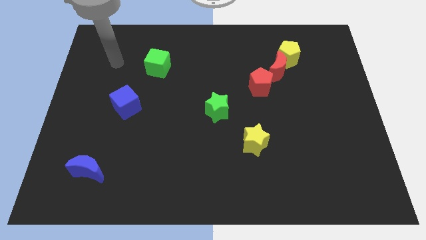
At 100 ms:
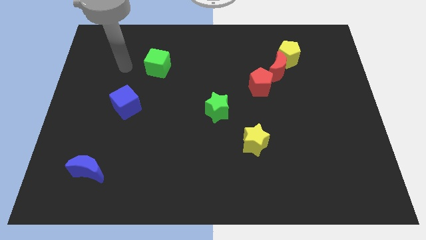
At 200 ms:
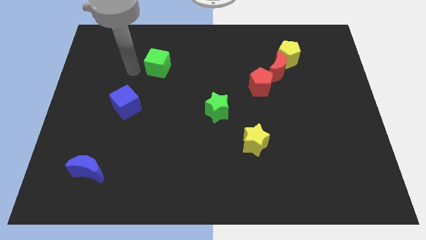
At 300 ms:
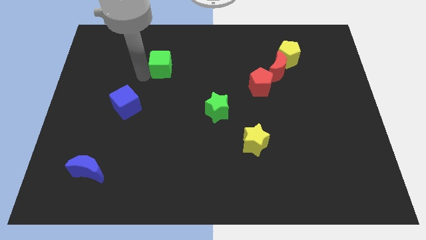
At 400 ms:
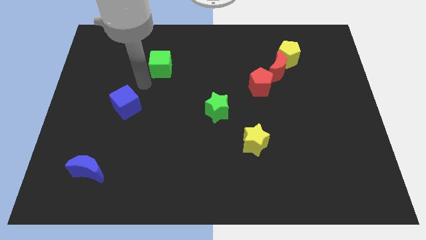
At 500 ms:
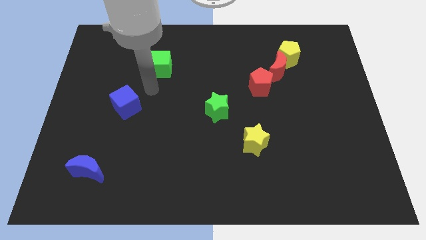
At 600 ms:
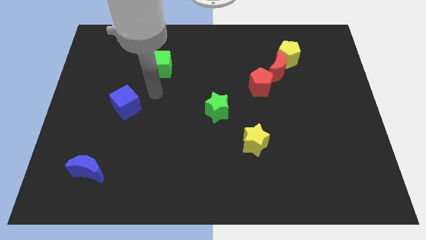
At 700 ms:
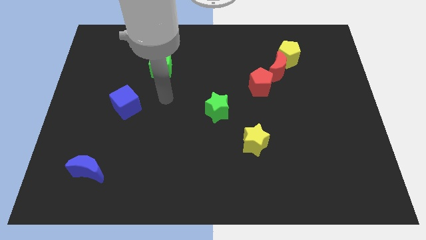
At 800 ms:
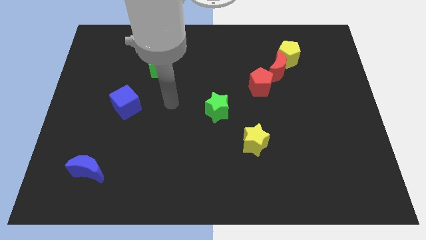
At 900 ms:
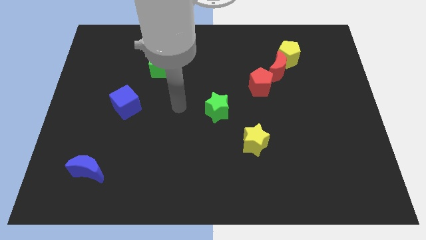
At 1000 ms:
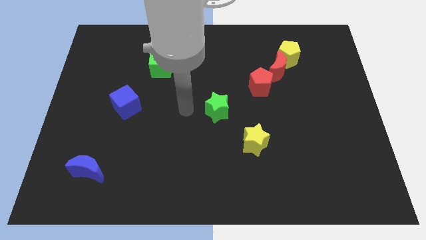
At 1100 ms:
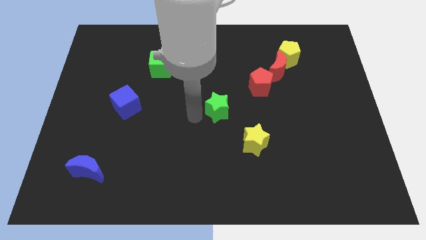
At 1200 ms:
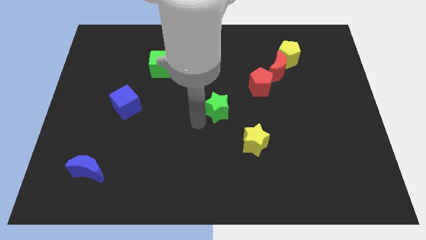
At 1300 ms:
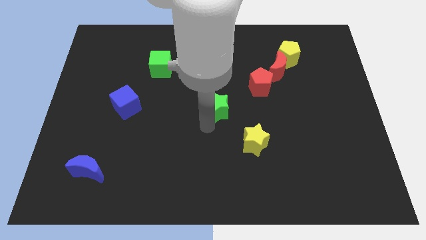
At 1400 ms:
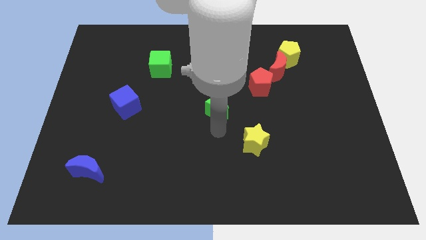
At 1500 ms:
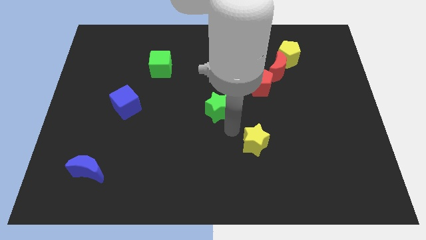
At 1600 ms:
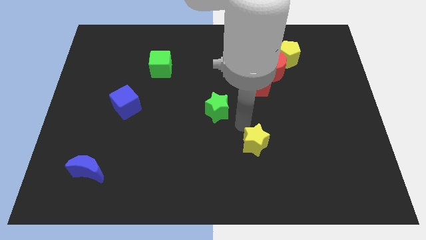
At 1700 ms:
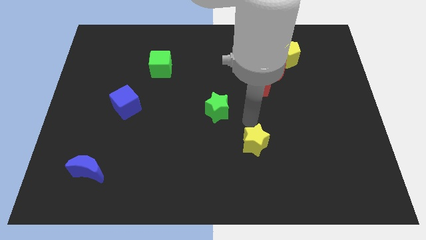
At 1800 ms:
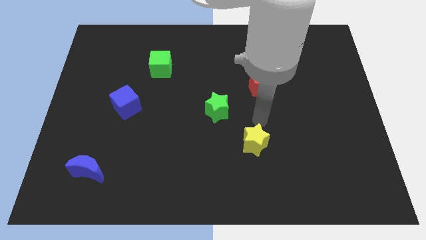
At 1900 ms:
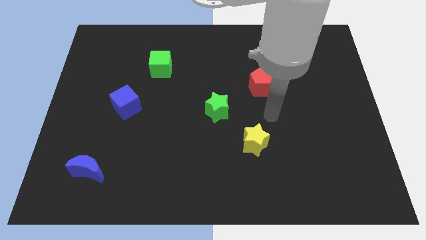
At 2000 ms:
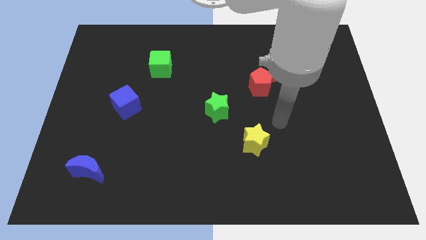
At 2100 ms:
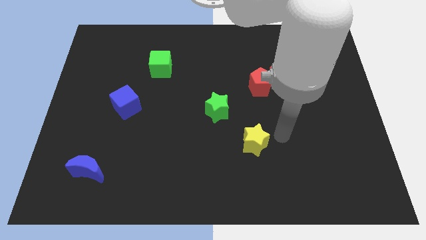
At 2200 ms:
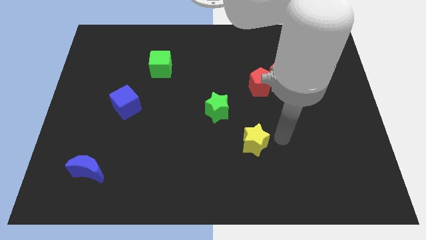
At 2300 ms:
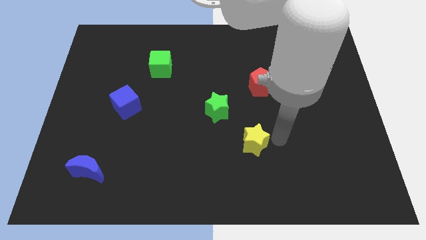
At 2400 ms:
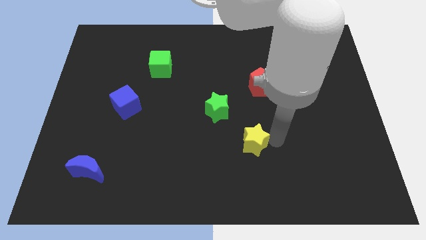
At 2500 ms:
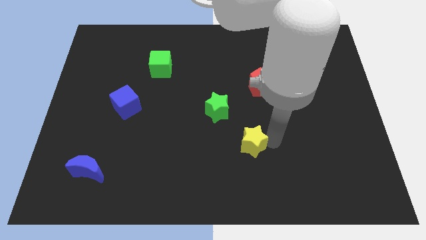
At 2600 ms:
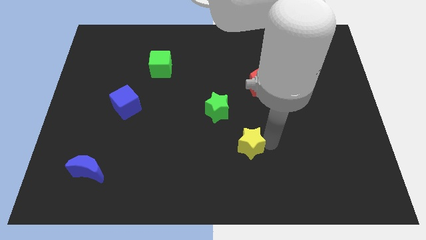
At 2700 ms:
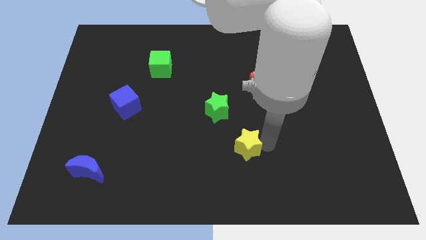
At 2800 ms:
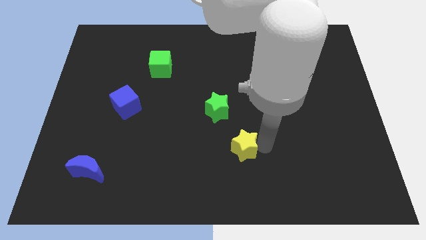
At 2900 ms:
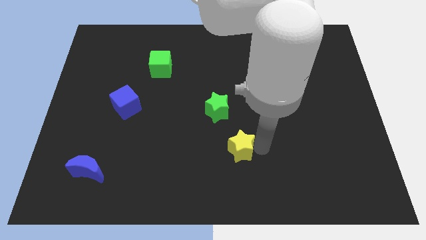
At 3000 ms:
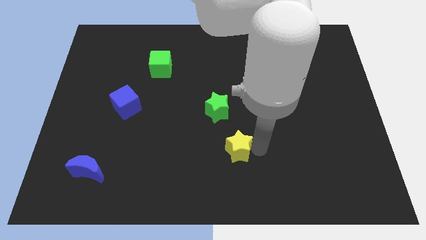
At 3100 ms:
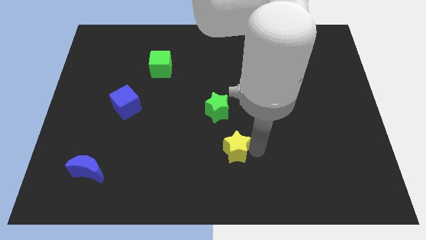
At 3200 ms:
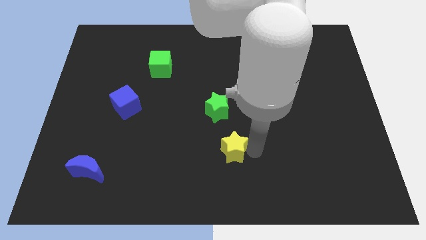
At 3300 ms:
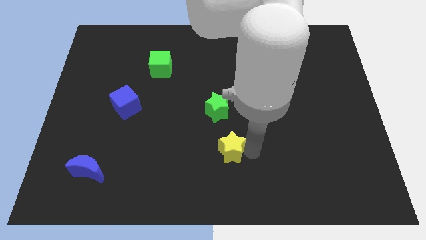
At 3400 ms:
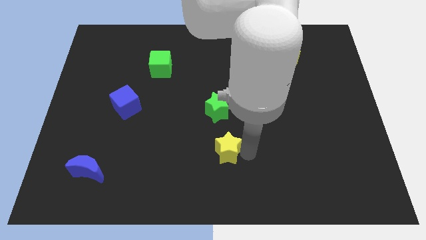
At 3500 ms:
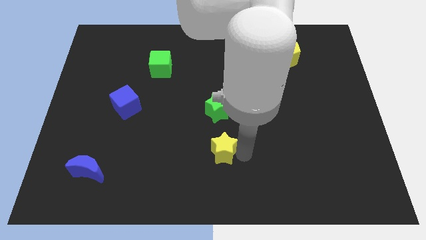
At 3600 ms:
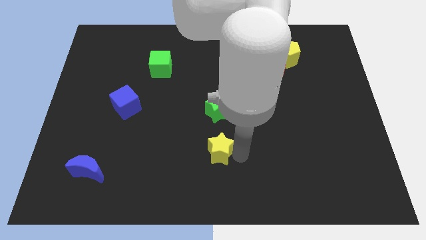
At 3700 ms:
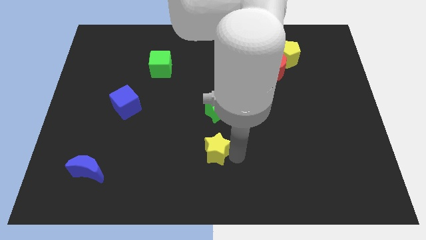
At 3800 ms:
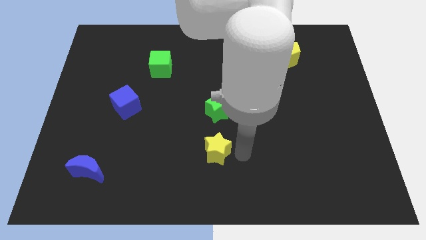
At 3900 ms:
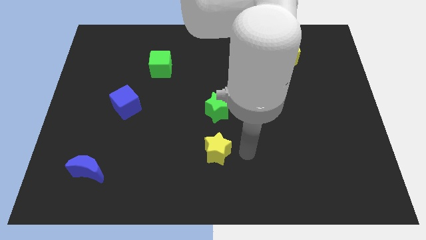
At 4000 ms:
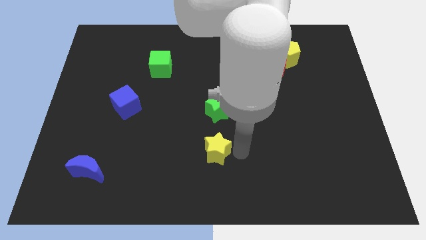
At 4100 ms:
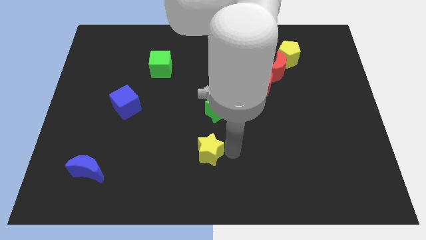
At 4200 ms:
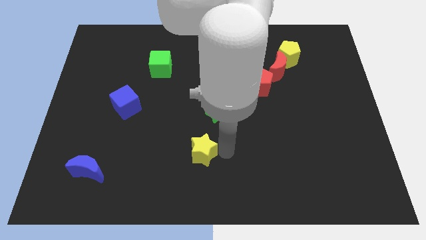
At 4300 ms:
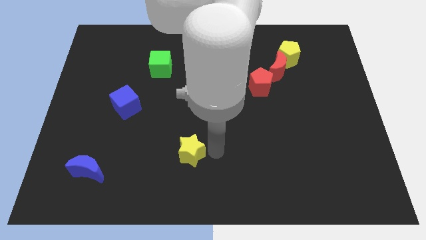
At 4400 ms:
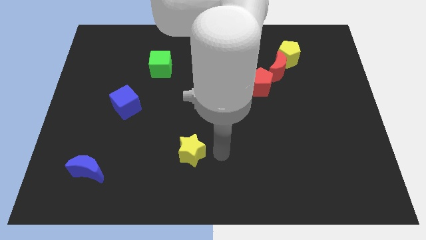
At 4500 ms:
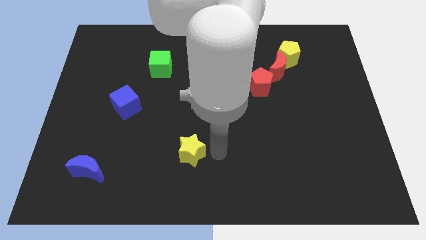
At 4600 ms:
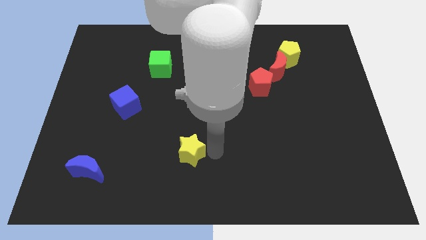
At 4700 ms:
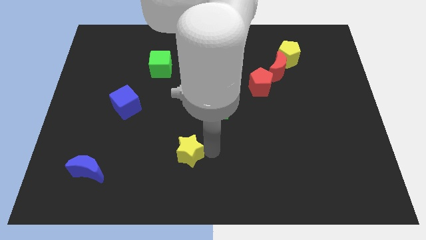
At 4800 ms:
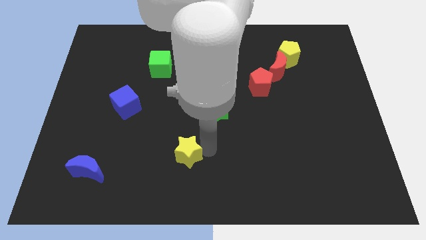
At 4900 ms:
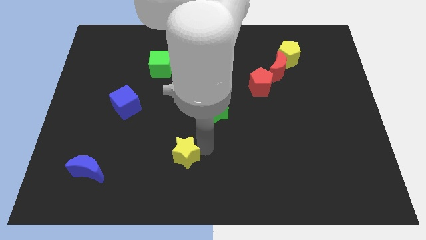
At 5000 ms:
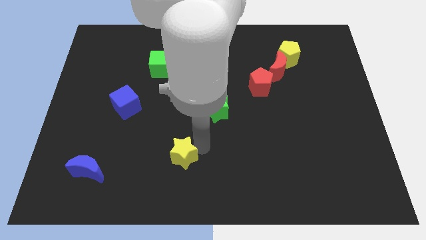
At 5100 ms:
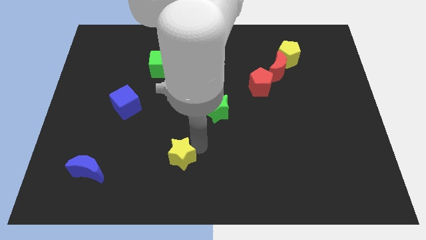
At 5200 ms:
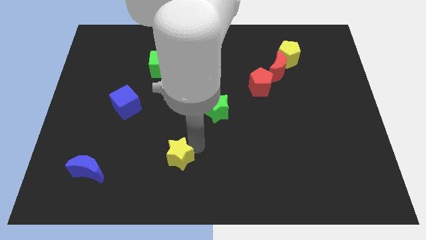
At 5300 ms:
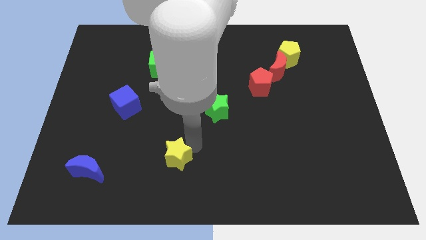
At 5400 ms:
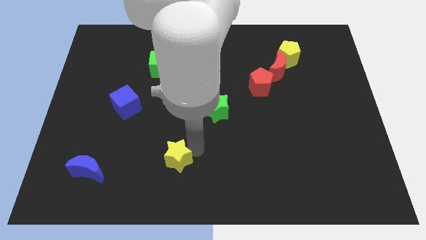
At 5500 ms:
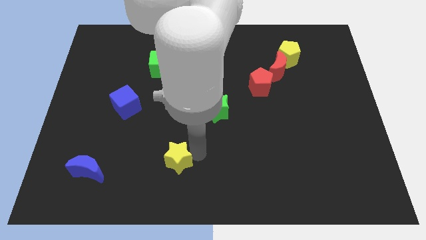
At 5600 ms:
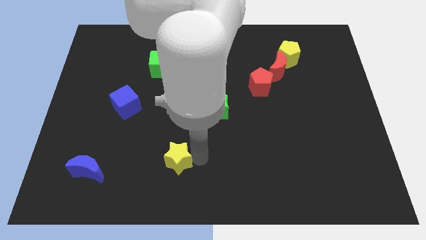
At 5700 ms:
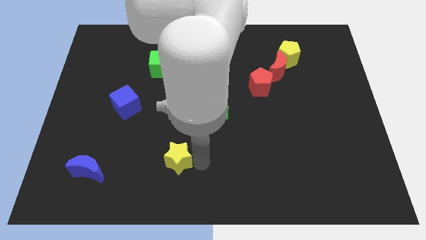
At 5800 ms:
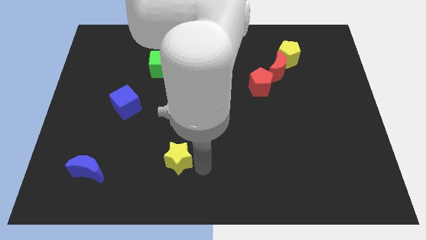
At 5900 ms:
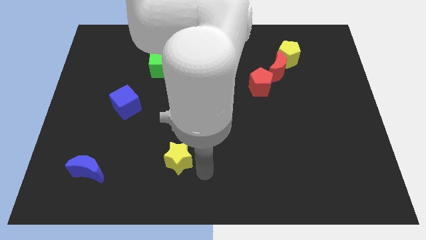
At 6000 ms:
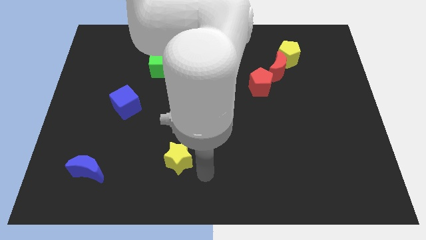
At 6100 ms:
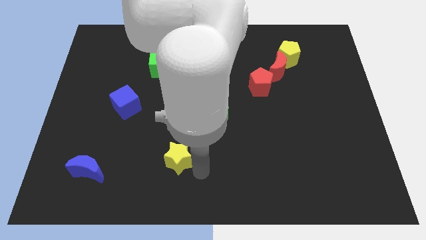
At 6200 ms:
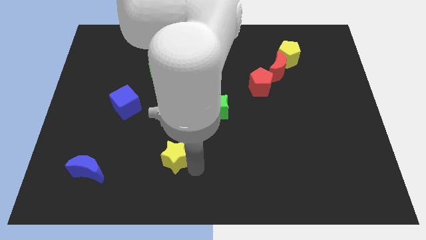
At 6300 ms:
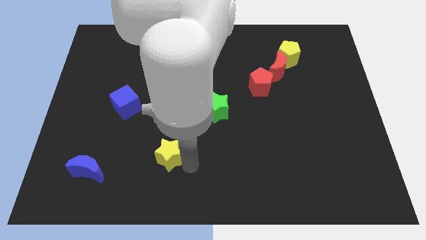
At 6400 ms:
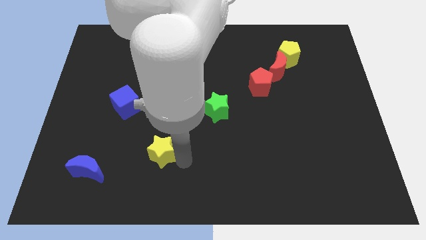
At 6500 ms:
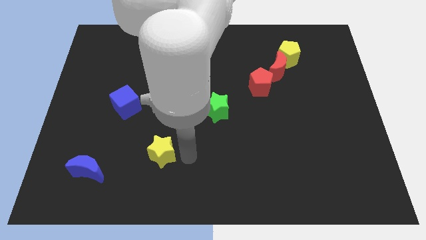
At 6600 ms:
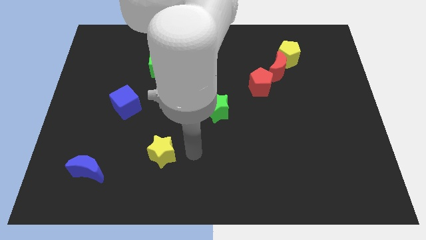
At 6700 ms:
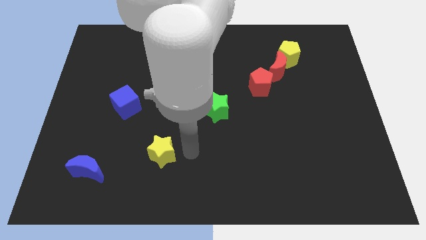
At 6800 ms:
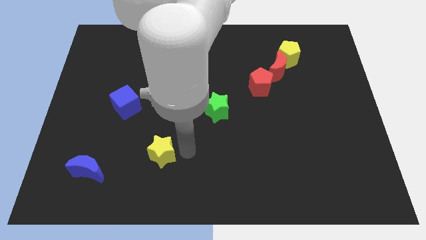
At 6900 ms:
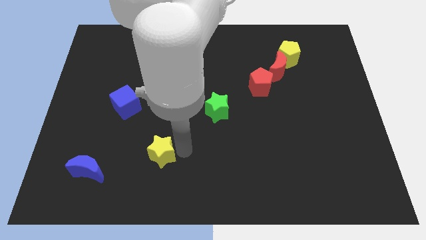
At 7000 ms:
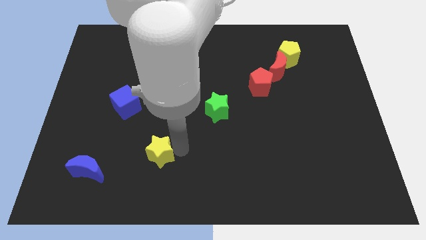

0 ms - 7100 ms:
slide the yellow star to the left

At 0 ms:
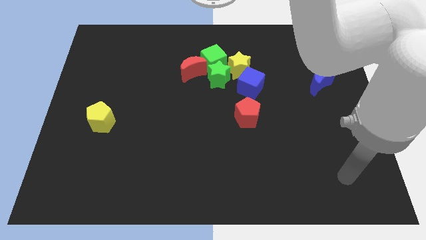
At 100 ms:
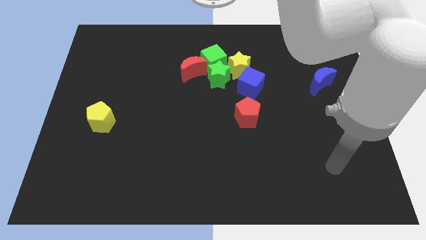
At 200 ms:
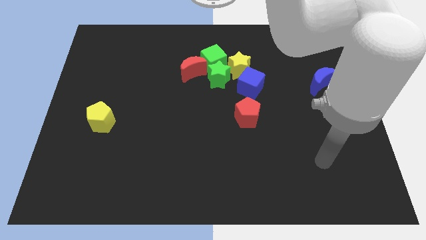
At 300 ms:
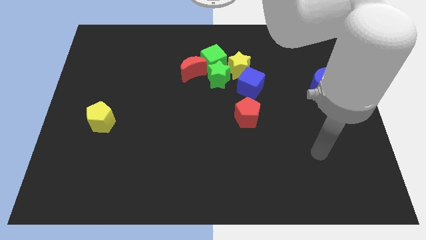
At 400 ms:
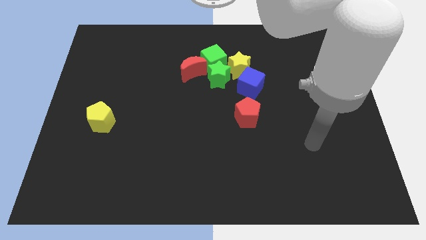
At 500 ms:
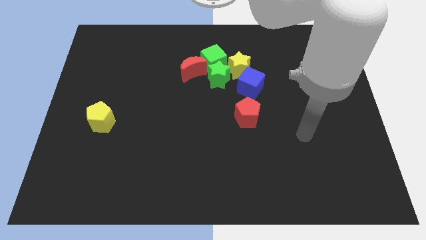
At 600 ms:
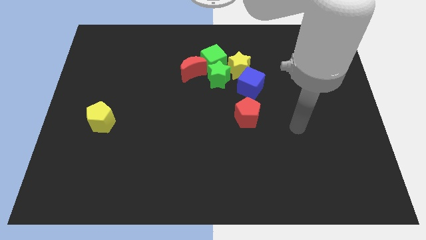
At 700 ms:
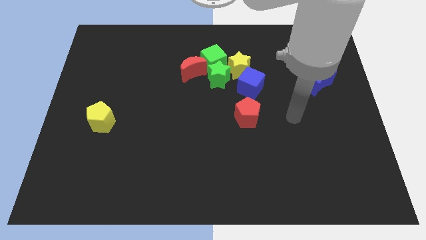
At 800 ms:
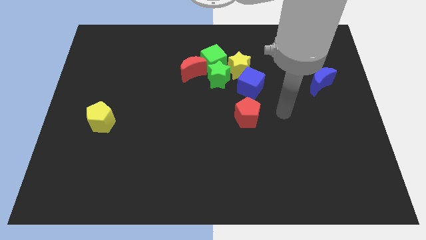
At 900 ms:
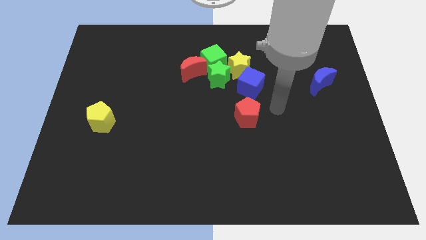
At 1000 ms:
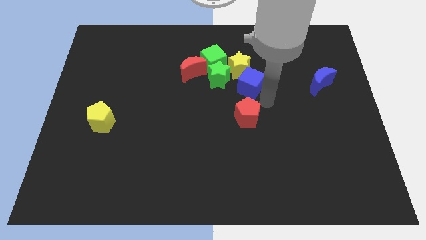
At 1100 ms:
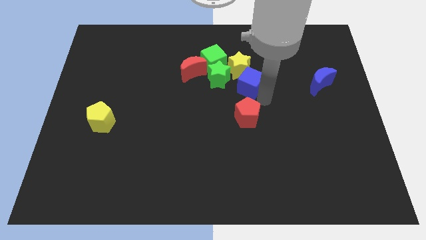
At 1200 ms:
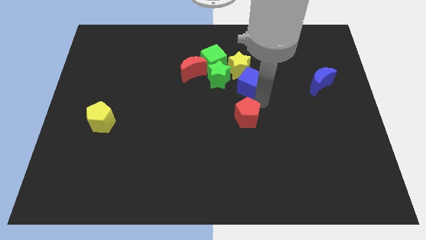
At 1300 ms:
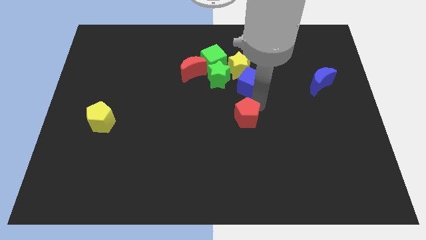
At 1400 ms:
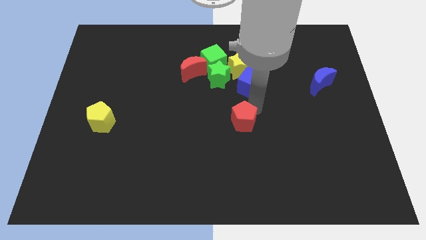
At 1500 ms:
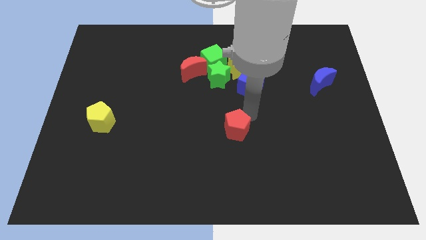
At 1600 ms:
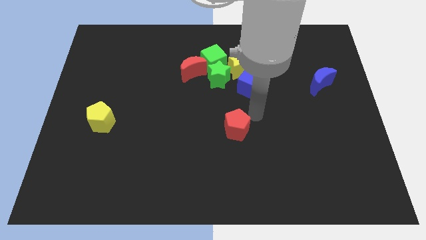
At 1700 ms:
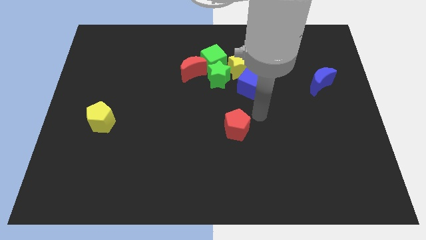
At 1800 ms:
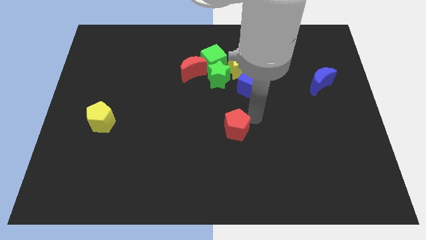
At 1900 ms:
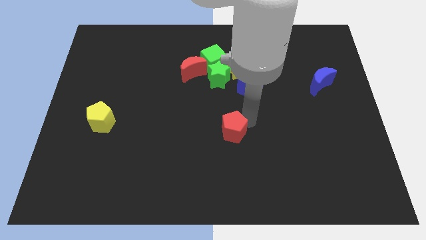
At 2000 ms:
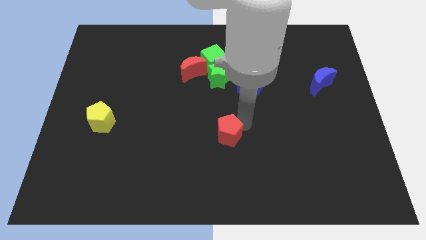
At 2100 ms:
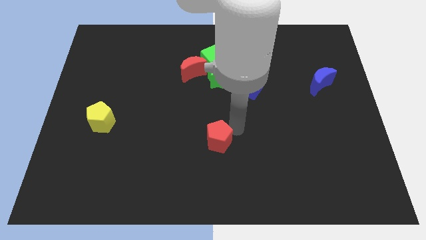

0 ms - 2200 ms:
push the red pentagon diagonally down and left slightly
